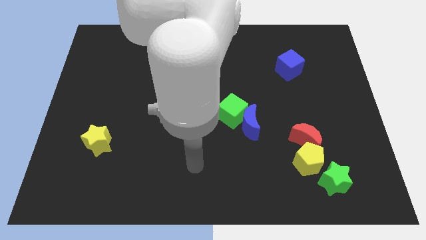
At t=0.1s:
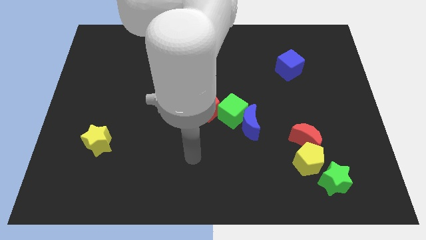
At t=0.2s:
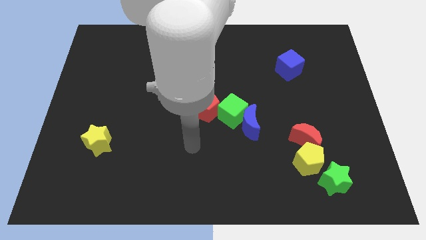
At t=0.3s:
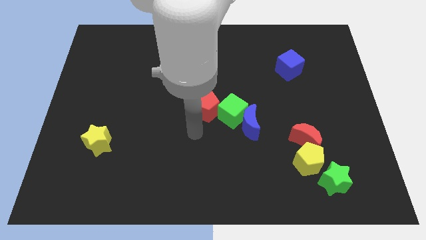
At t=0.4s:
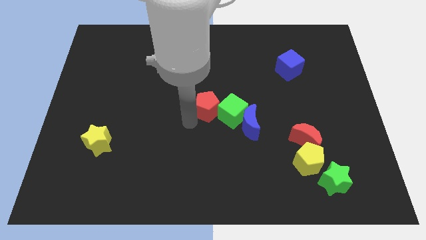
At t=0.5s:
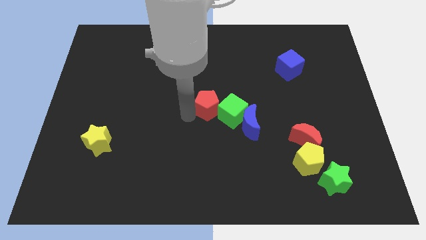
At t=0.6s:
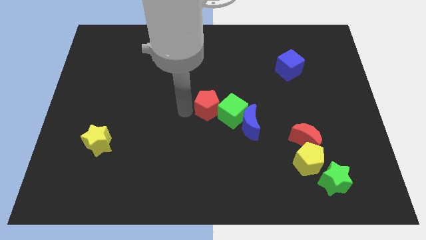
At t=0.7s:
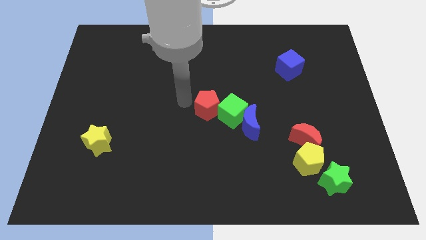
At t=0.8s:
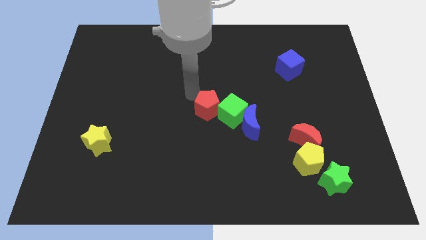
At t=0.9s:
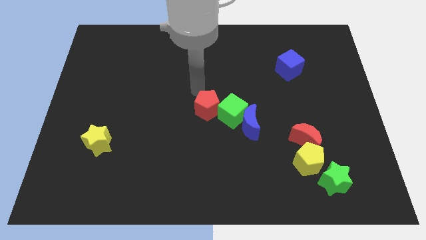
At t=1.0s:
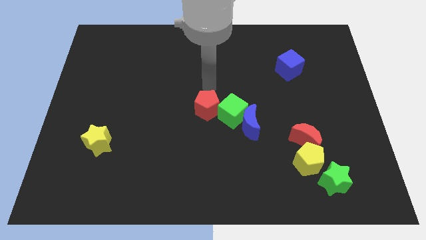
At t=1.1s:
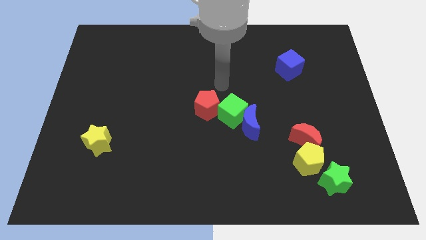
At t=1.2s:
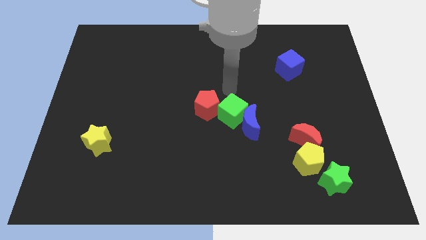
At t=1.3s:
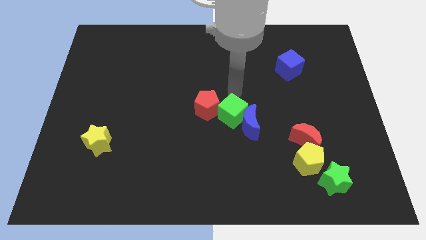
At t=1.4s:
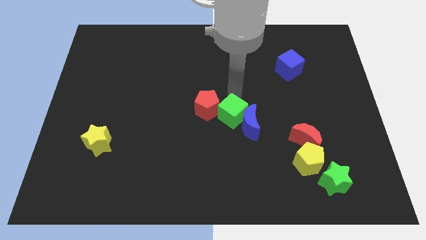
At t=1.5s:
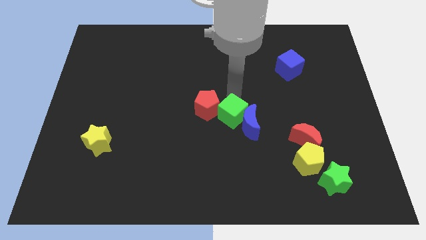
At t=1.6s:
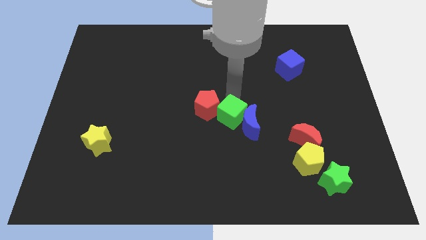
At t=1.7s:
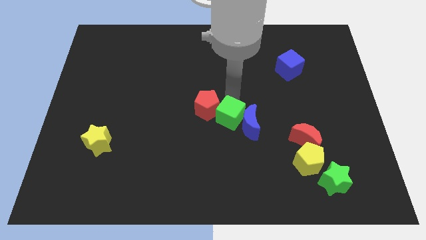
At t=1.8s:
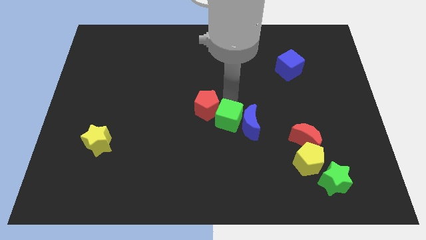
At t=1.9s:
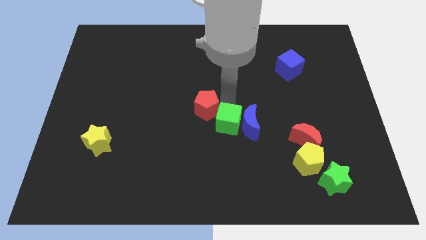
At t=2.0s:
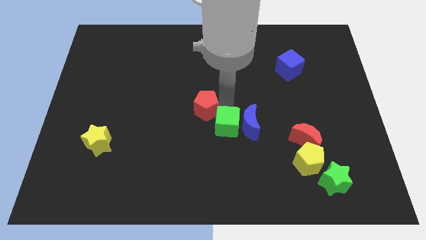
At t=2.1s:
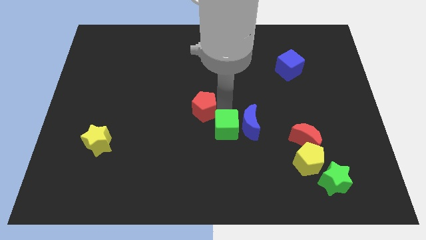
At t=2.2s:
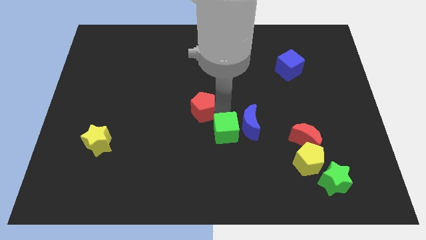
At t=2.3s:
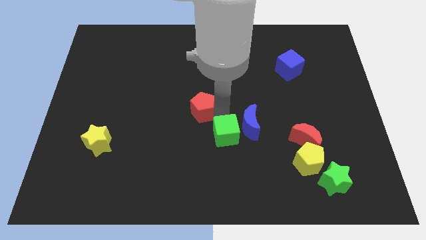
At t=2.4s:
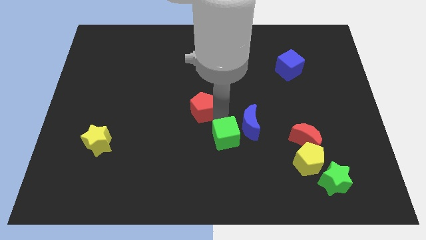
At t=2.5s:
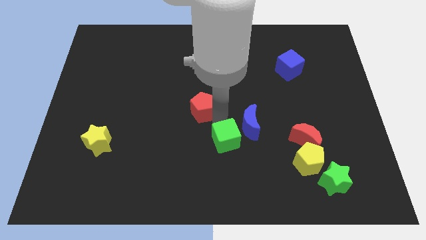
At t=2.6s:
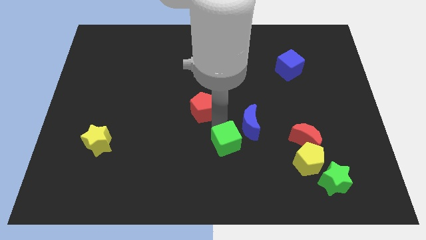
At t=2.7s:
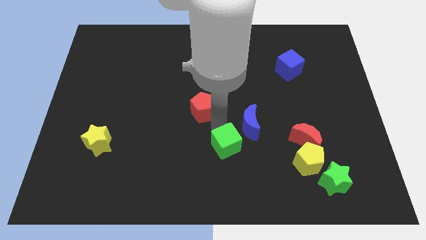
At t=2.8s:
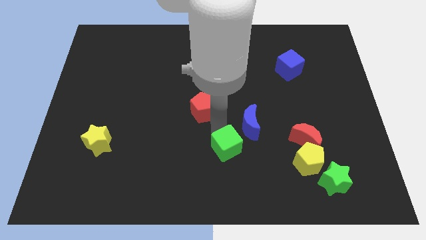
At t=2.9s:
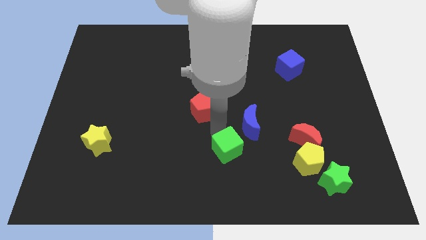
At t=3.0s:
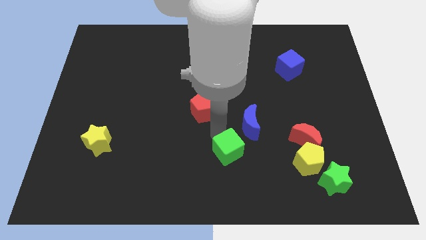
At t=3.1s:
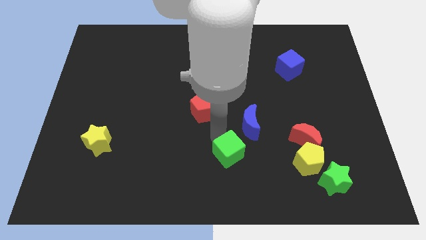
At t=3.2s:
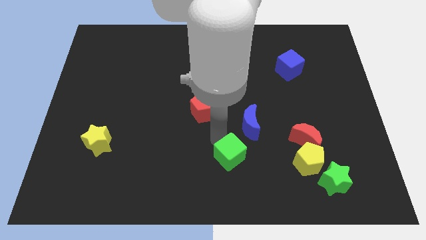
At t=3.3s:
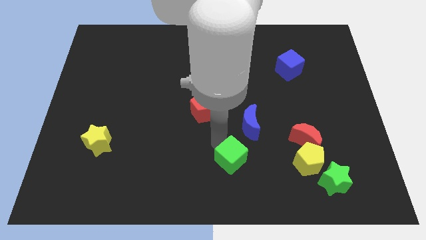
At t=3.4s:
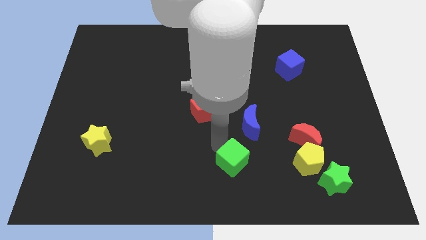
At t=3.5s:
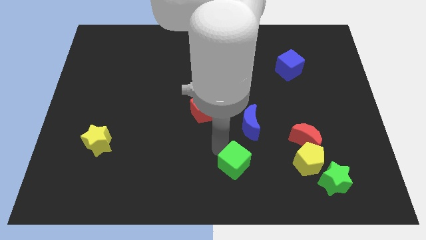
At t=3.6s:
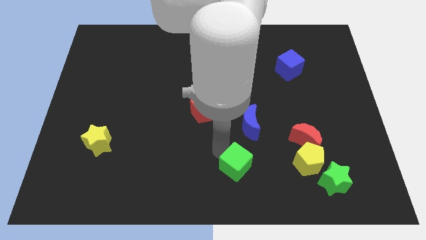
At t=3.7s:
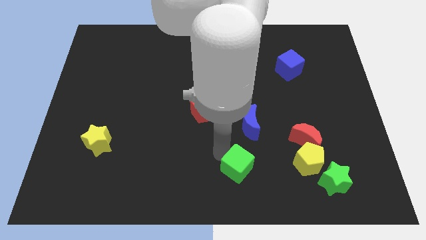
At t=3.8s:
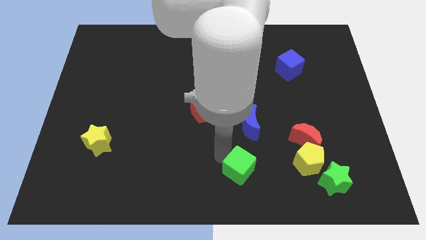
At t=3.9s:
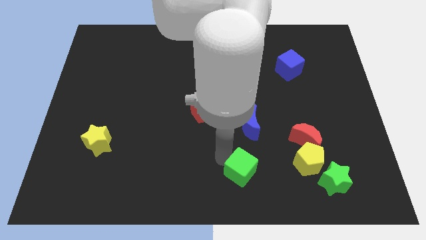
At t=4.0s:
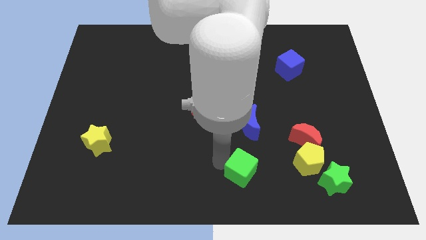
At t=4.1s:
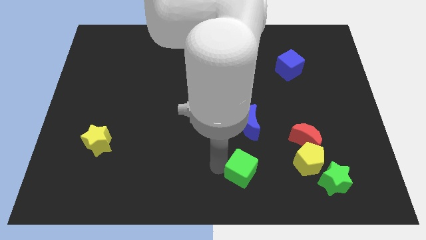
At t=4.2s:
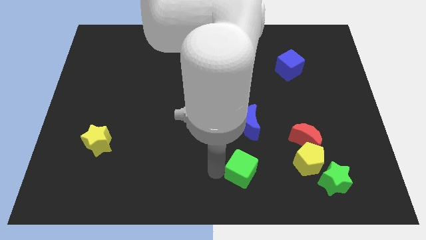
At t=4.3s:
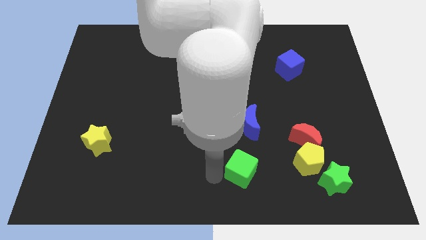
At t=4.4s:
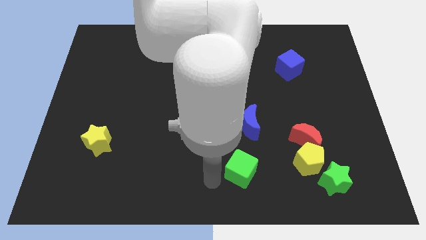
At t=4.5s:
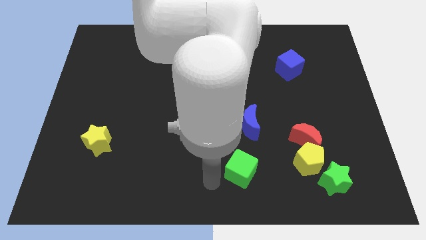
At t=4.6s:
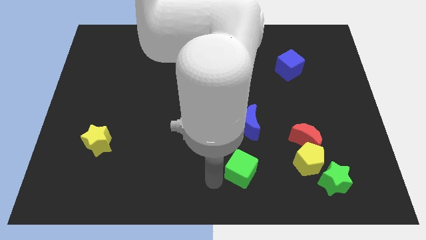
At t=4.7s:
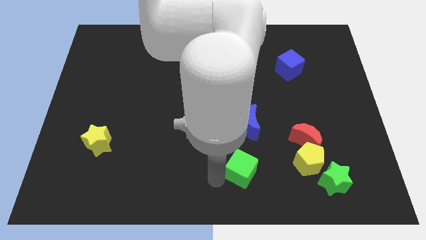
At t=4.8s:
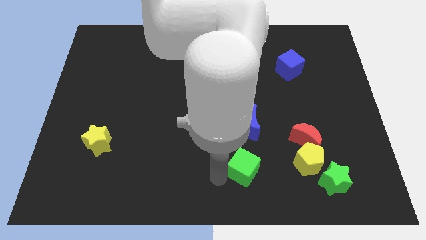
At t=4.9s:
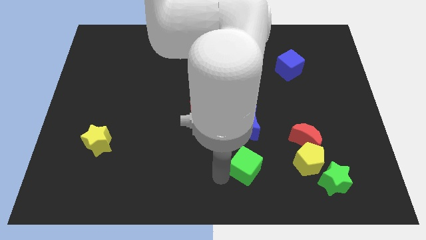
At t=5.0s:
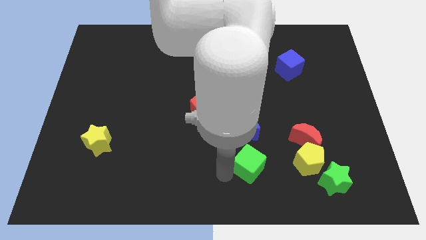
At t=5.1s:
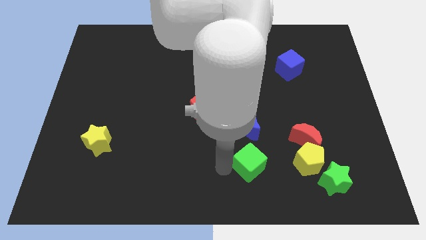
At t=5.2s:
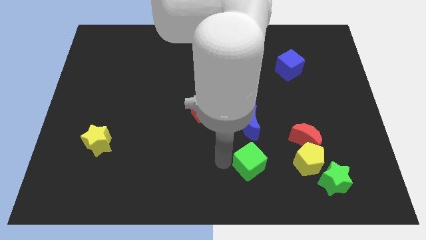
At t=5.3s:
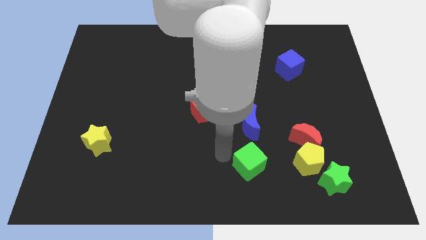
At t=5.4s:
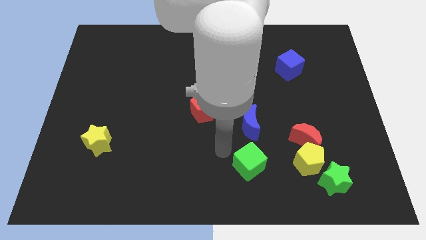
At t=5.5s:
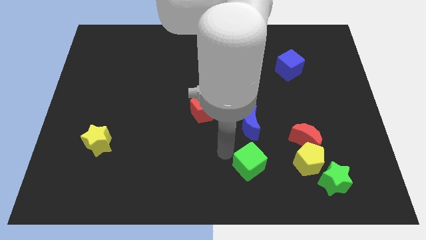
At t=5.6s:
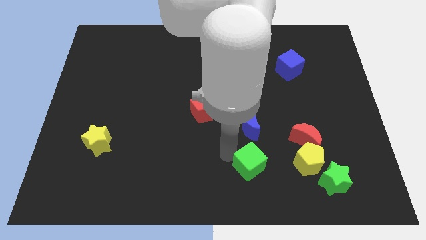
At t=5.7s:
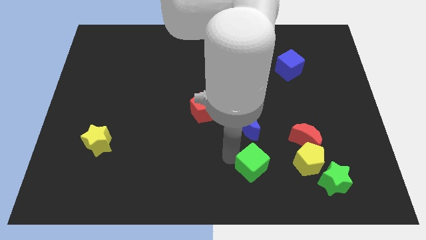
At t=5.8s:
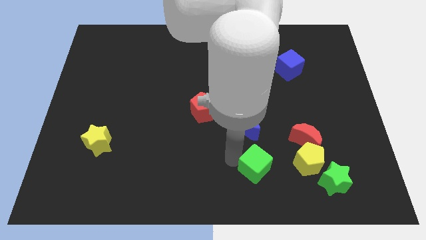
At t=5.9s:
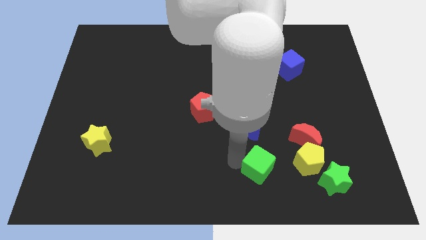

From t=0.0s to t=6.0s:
push the green cube left of the green star
